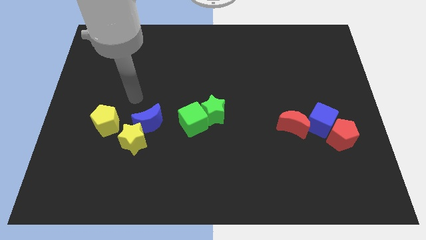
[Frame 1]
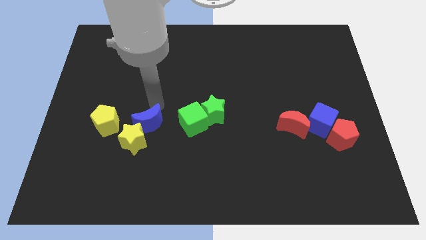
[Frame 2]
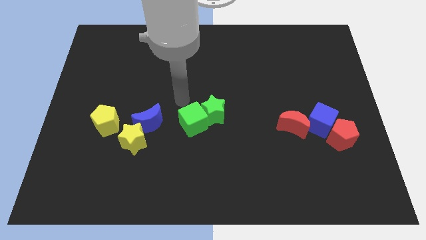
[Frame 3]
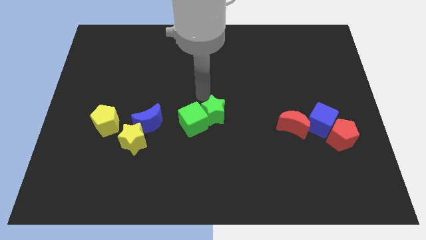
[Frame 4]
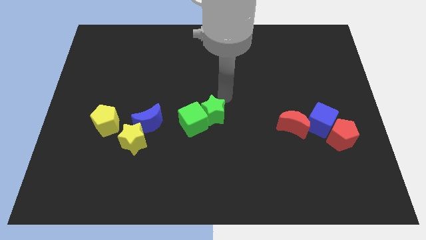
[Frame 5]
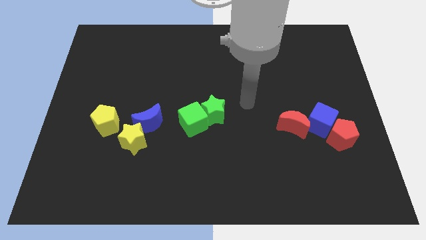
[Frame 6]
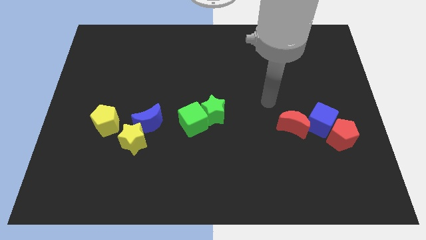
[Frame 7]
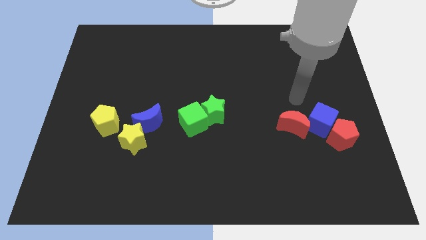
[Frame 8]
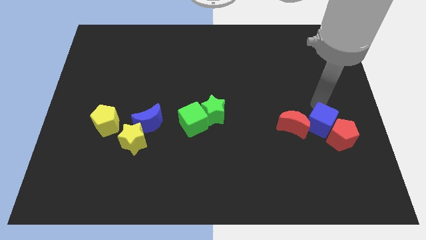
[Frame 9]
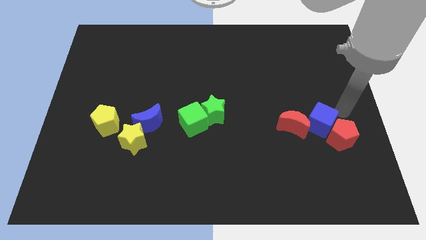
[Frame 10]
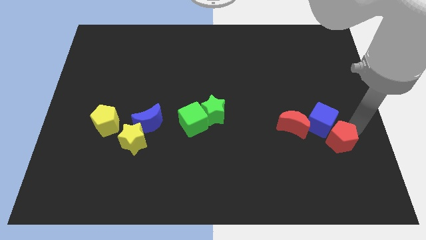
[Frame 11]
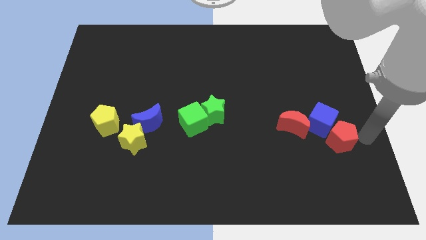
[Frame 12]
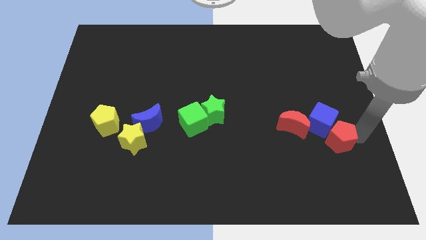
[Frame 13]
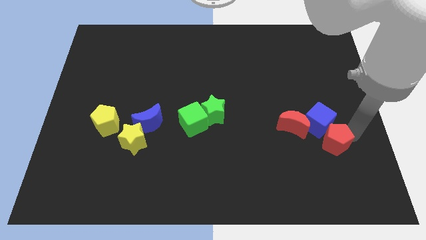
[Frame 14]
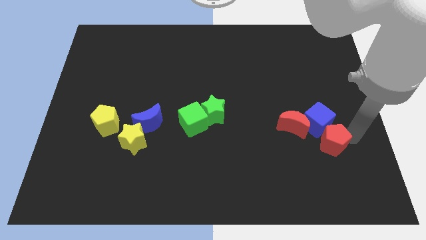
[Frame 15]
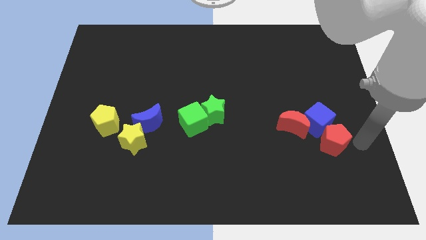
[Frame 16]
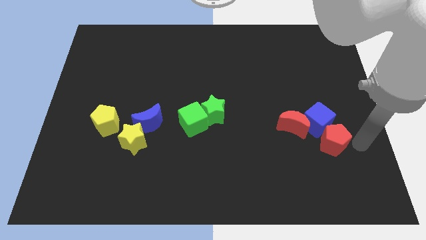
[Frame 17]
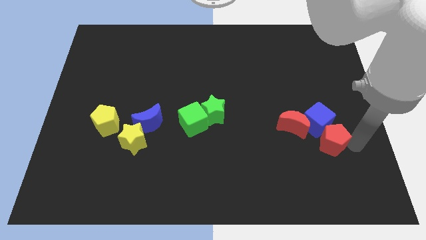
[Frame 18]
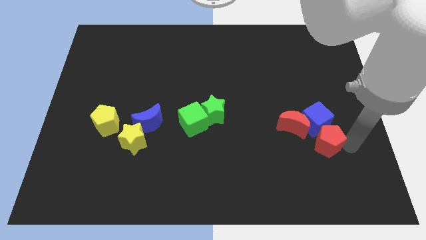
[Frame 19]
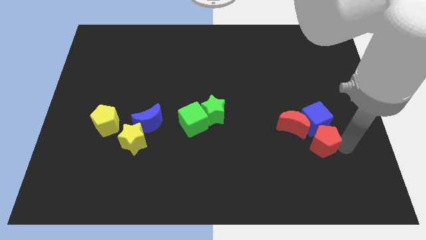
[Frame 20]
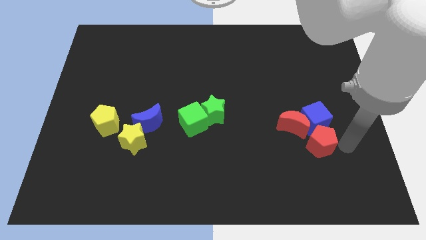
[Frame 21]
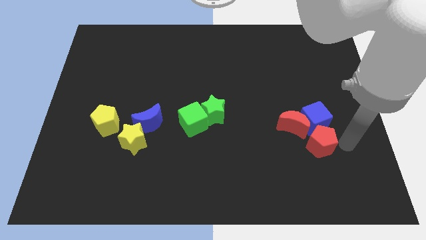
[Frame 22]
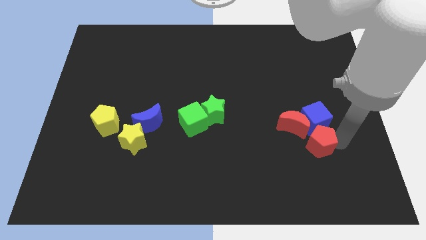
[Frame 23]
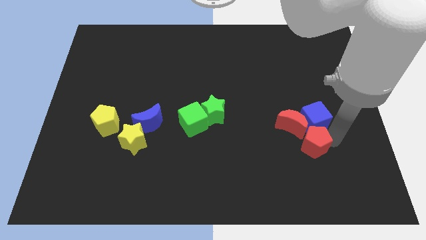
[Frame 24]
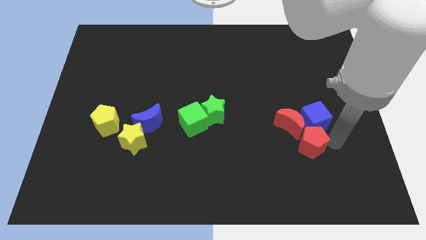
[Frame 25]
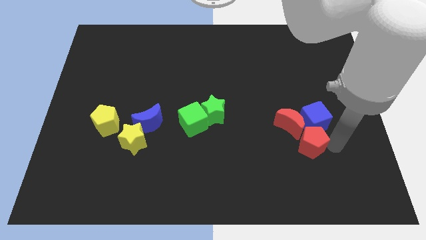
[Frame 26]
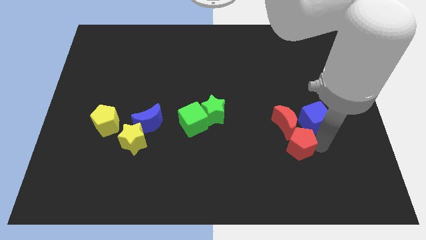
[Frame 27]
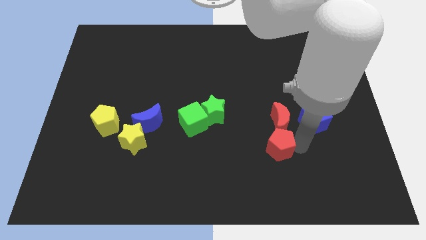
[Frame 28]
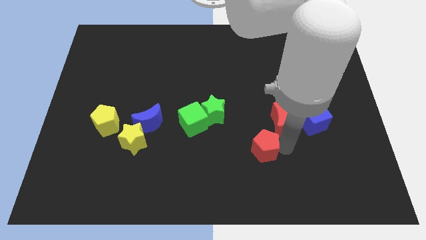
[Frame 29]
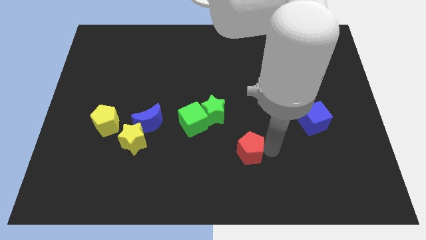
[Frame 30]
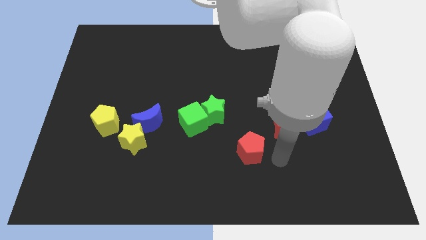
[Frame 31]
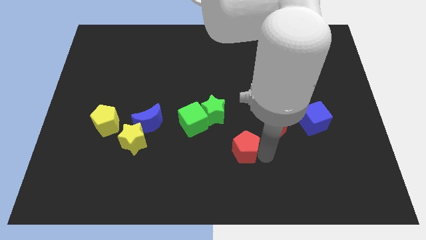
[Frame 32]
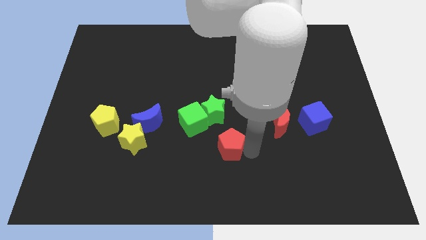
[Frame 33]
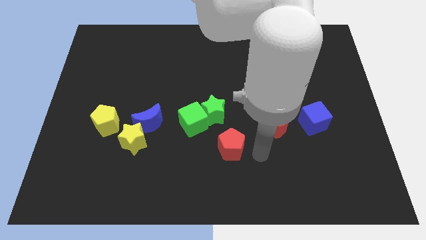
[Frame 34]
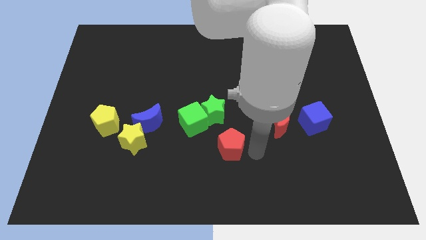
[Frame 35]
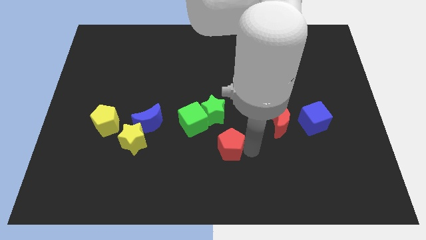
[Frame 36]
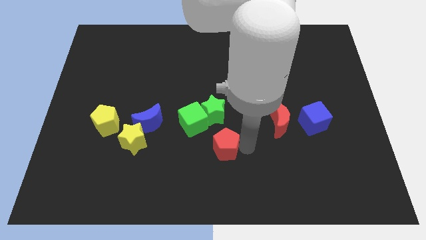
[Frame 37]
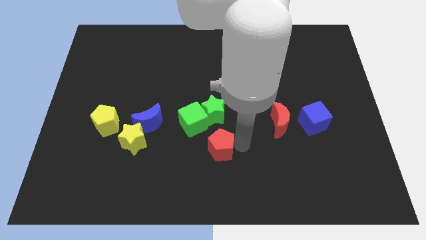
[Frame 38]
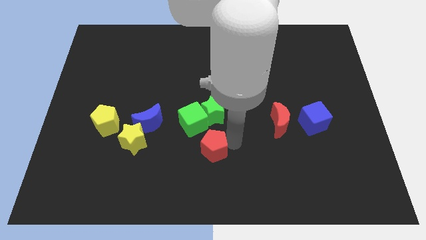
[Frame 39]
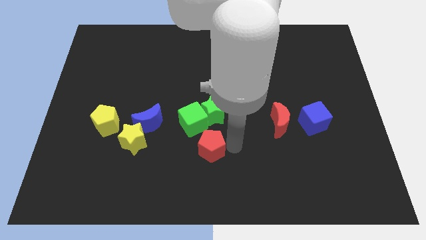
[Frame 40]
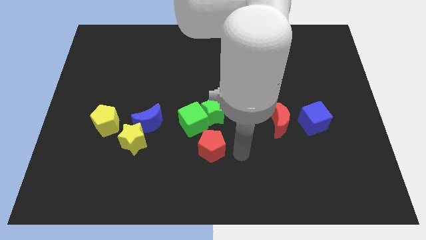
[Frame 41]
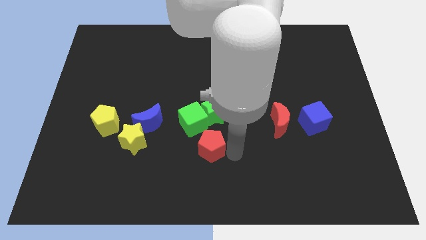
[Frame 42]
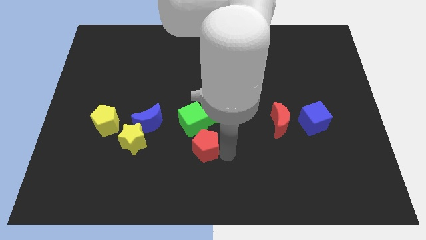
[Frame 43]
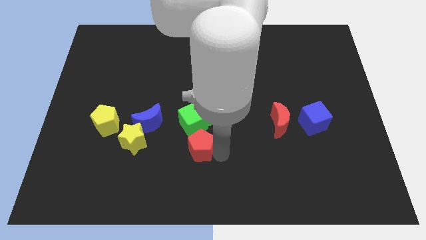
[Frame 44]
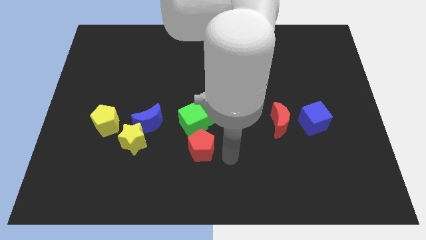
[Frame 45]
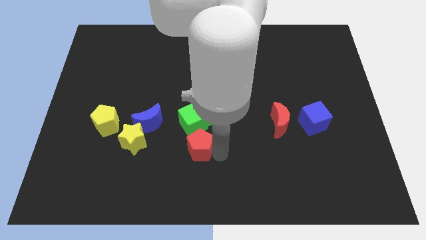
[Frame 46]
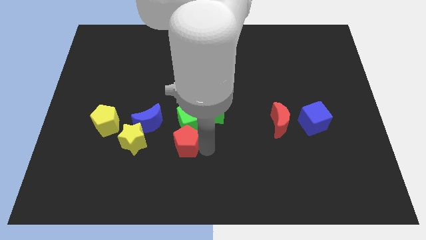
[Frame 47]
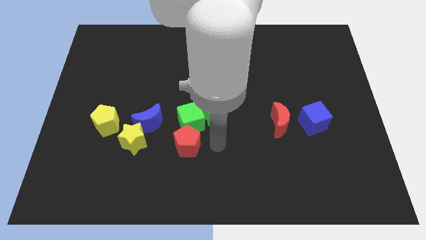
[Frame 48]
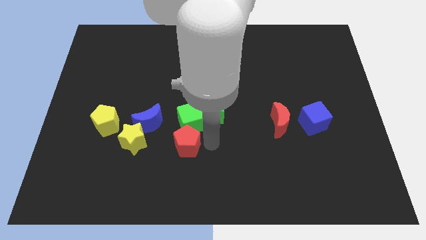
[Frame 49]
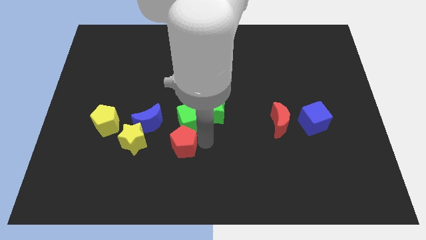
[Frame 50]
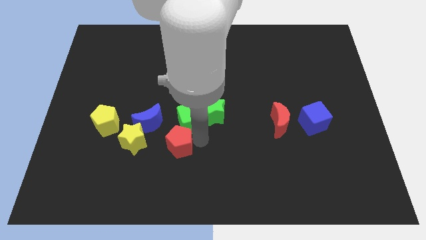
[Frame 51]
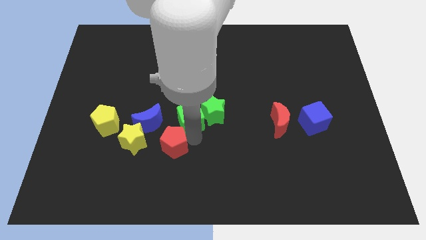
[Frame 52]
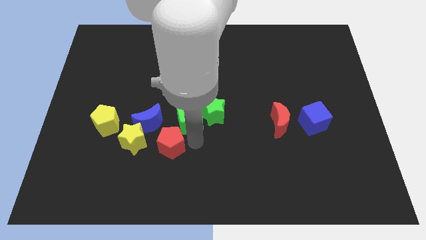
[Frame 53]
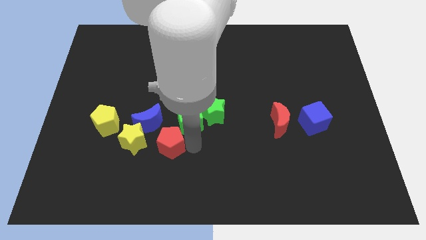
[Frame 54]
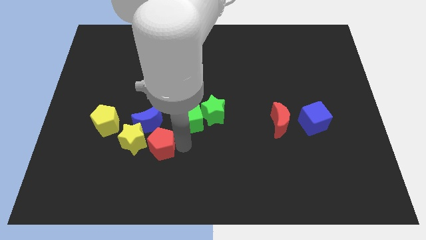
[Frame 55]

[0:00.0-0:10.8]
slide the red pentagon next to the yellow star

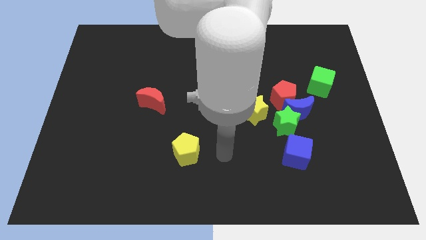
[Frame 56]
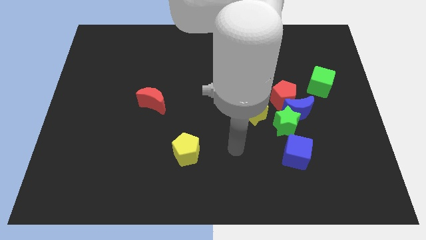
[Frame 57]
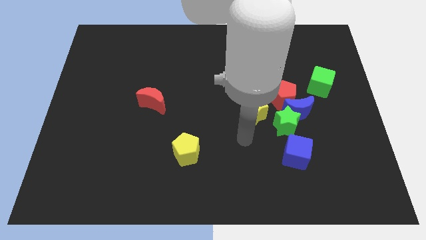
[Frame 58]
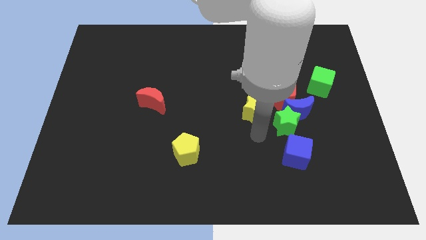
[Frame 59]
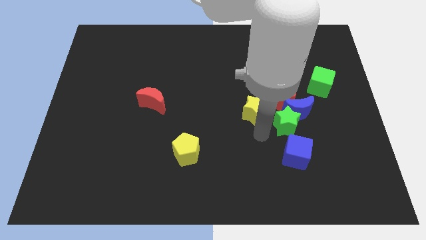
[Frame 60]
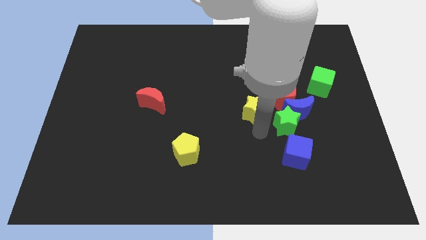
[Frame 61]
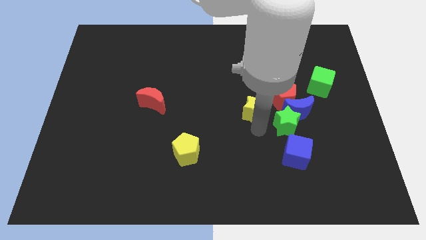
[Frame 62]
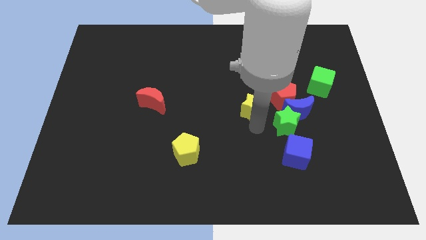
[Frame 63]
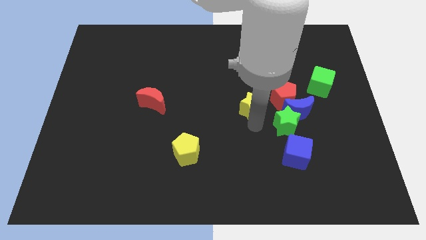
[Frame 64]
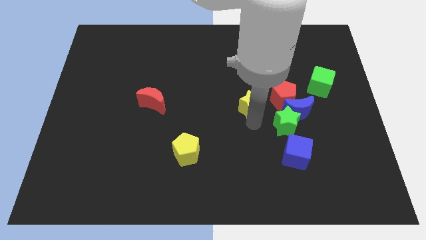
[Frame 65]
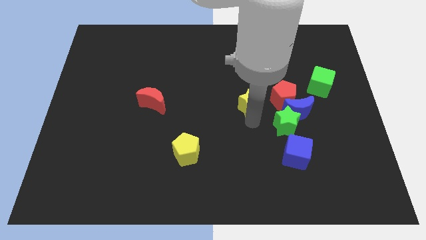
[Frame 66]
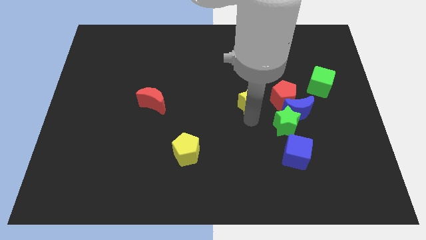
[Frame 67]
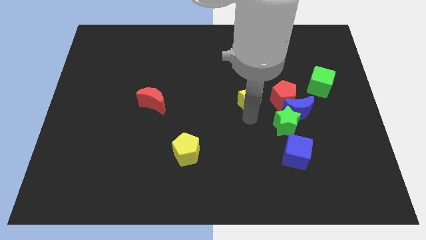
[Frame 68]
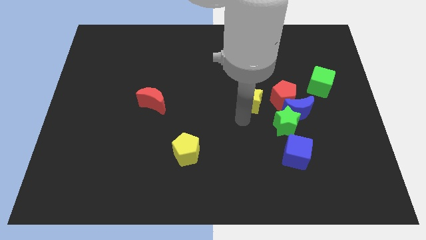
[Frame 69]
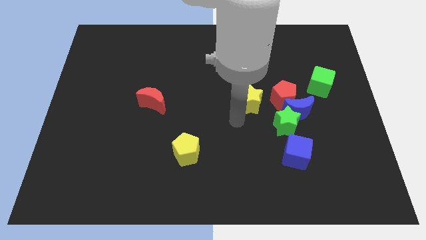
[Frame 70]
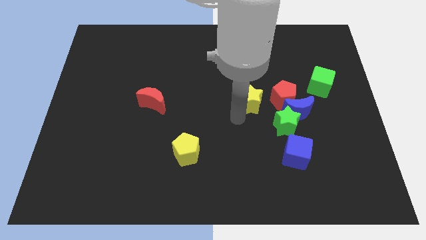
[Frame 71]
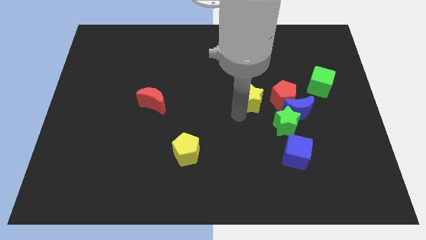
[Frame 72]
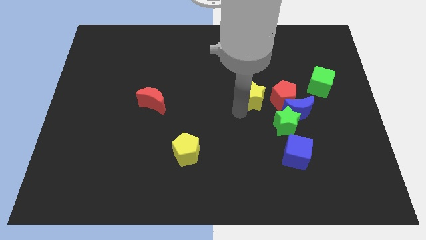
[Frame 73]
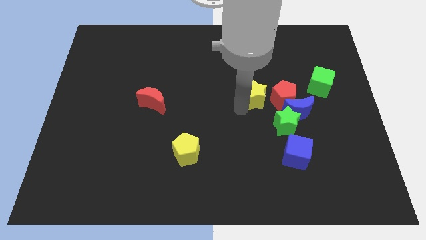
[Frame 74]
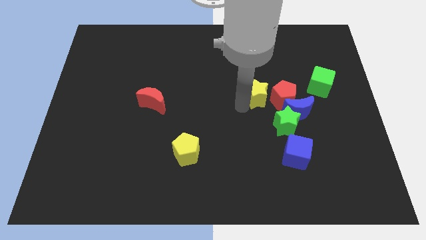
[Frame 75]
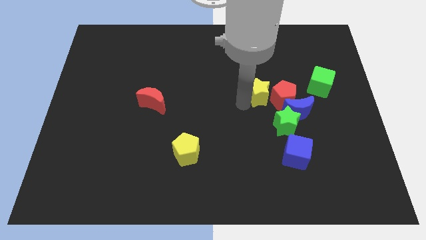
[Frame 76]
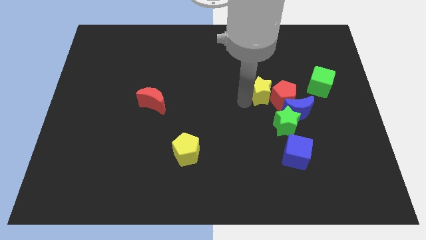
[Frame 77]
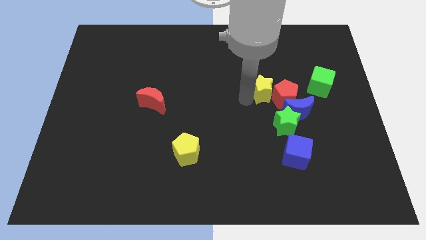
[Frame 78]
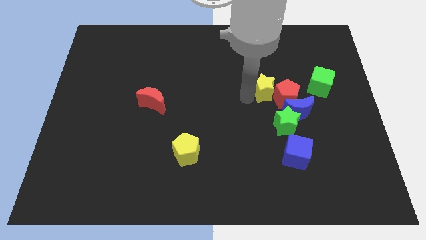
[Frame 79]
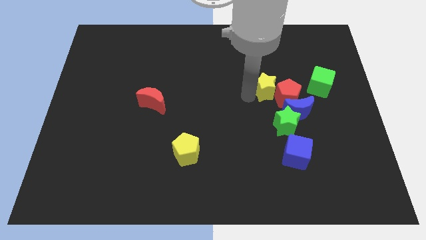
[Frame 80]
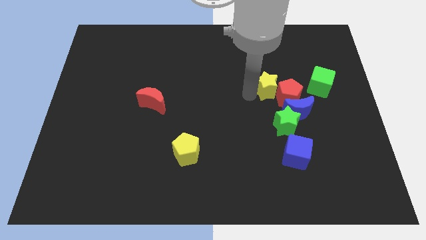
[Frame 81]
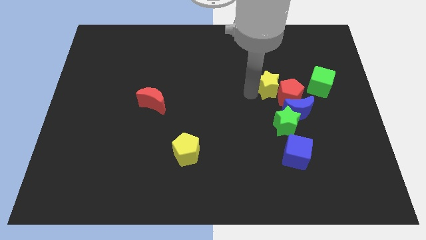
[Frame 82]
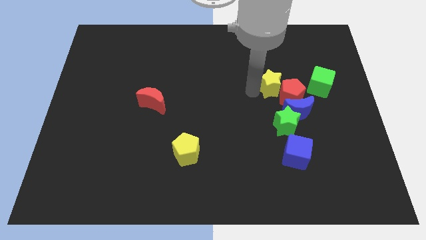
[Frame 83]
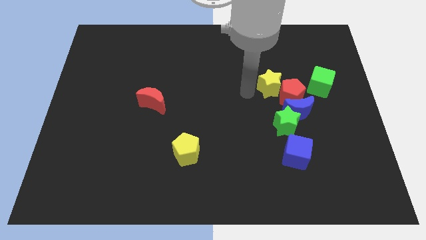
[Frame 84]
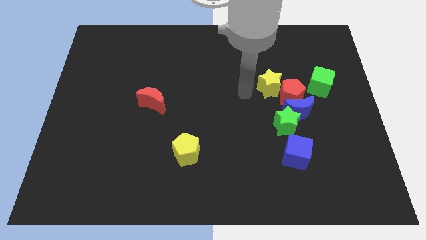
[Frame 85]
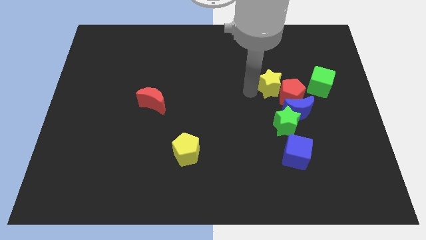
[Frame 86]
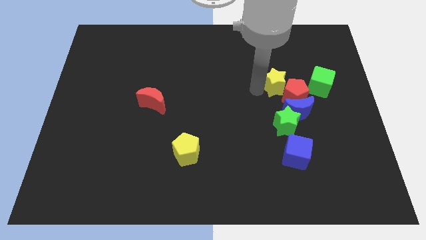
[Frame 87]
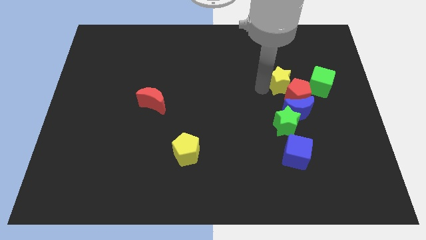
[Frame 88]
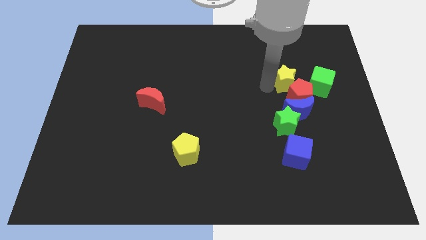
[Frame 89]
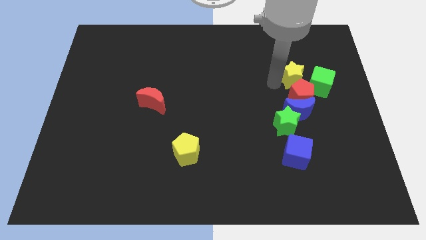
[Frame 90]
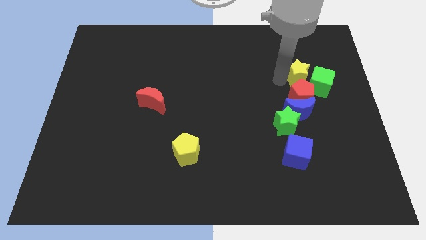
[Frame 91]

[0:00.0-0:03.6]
put the yellow star next to the green cube
